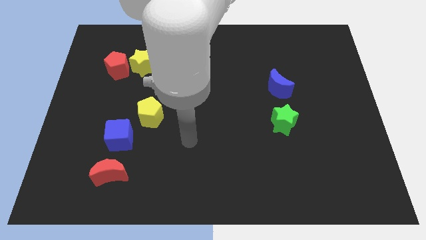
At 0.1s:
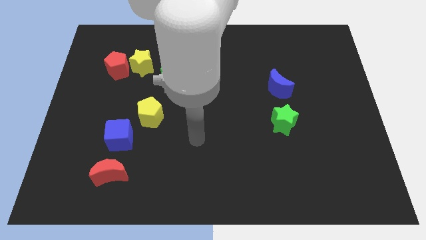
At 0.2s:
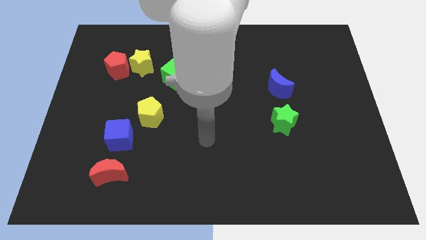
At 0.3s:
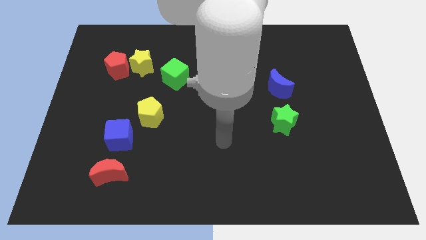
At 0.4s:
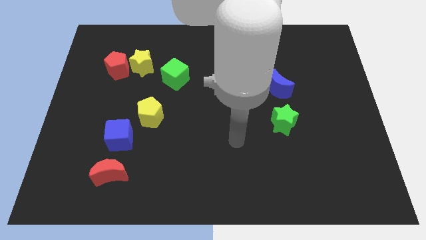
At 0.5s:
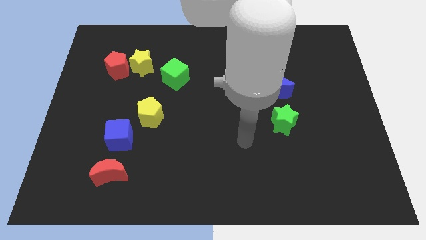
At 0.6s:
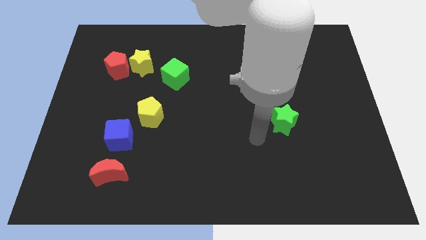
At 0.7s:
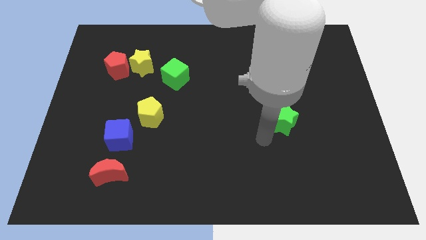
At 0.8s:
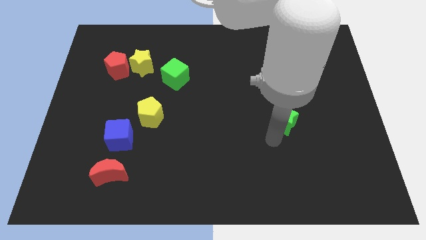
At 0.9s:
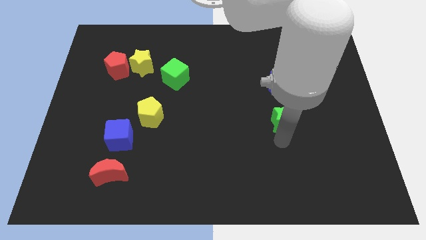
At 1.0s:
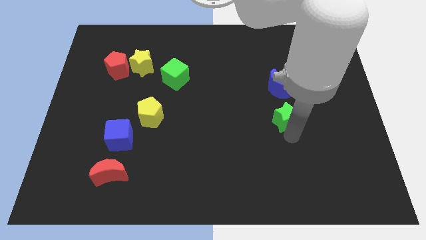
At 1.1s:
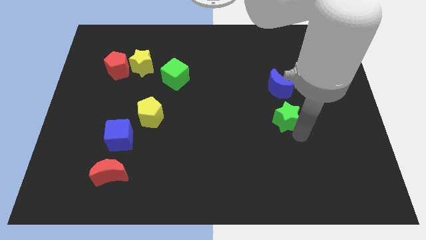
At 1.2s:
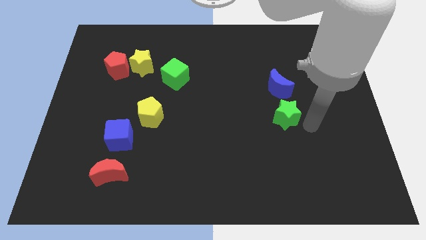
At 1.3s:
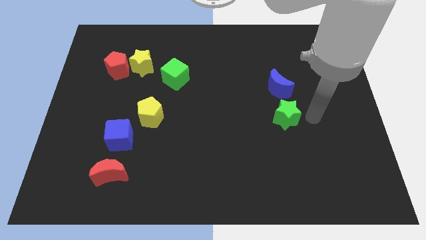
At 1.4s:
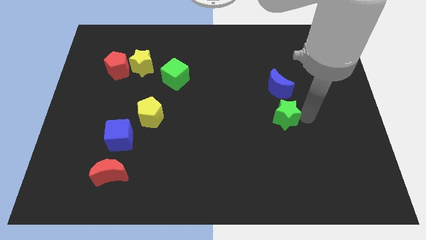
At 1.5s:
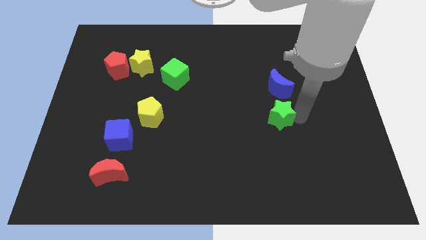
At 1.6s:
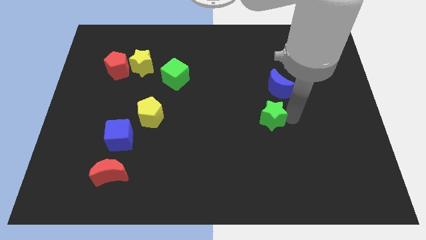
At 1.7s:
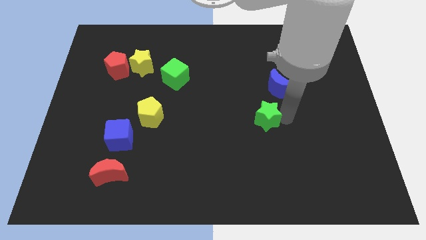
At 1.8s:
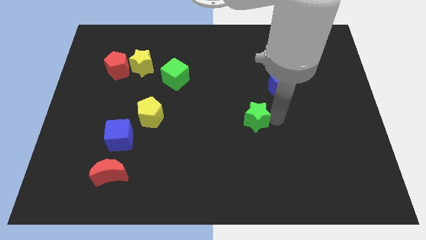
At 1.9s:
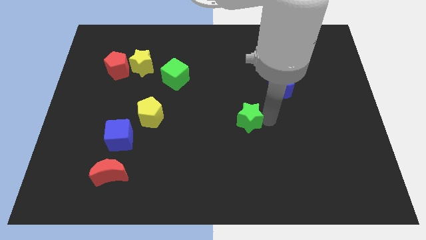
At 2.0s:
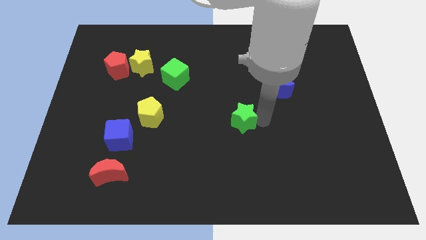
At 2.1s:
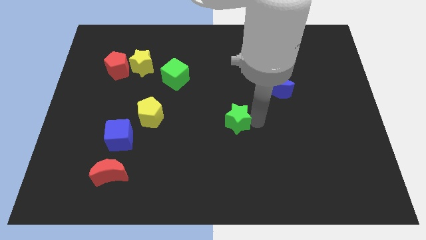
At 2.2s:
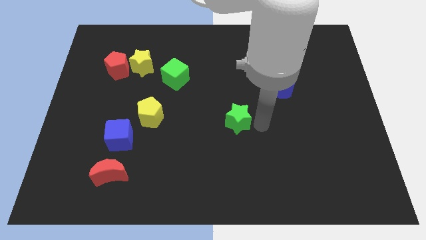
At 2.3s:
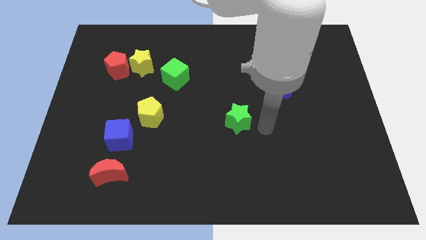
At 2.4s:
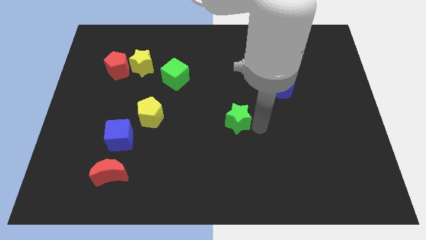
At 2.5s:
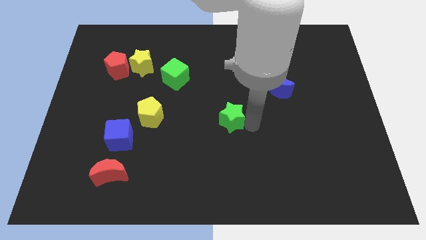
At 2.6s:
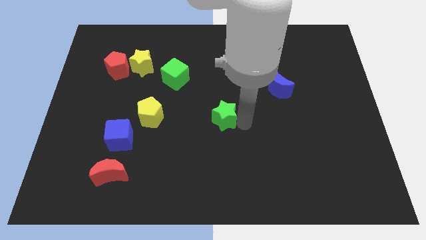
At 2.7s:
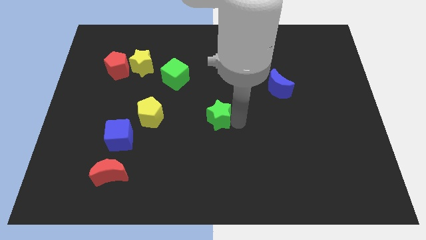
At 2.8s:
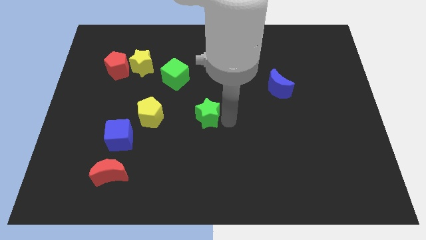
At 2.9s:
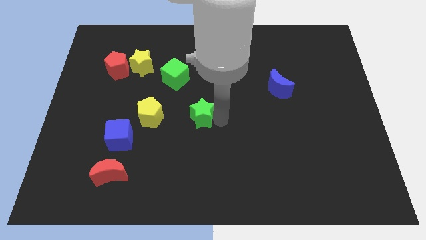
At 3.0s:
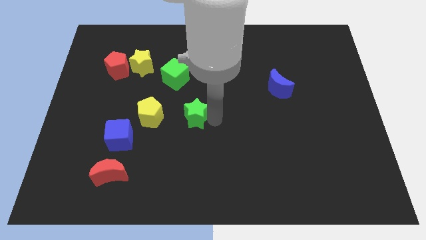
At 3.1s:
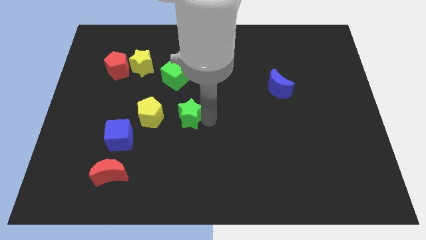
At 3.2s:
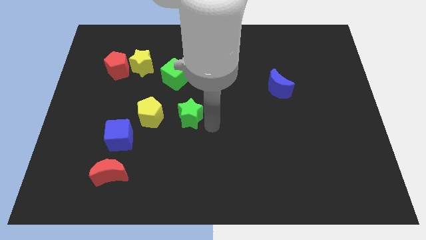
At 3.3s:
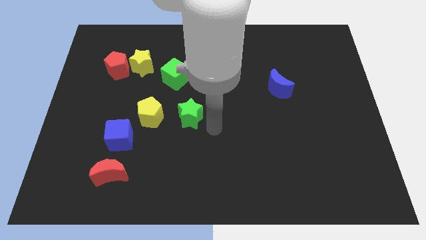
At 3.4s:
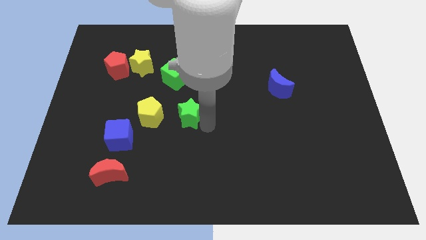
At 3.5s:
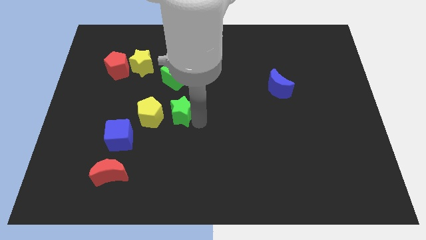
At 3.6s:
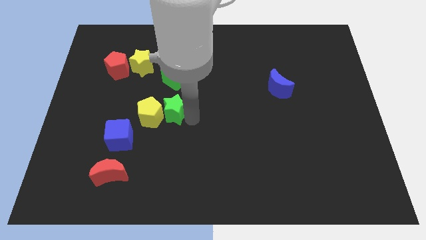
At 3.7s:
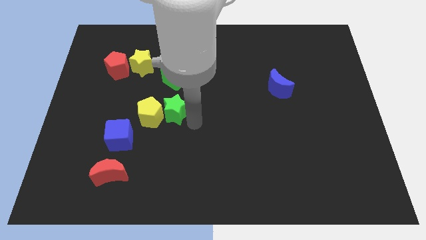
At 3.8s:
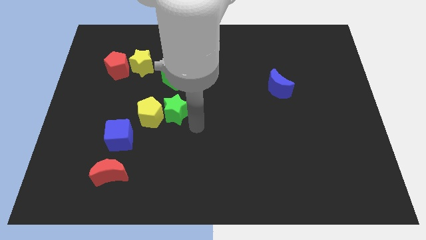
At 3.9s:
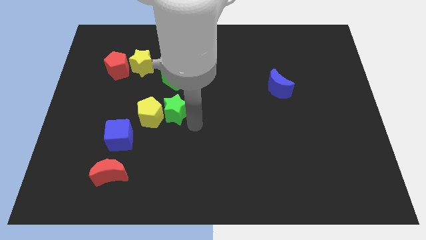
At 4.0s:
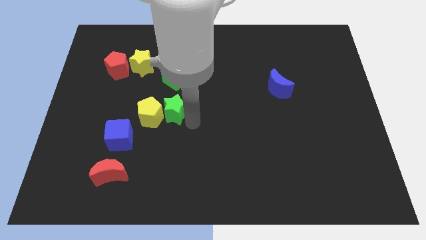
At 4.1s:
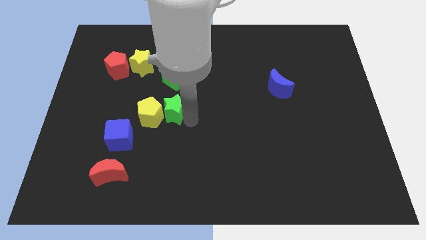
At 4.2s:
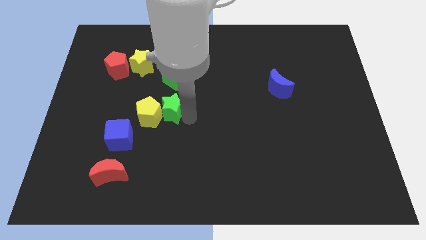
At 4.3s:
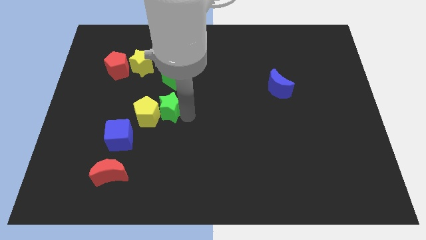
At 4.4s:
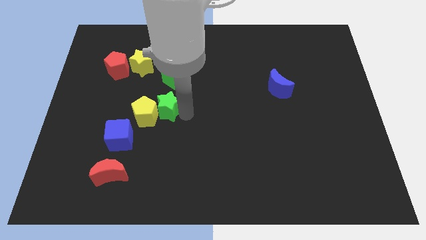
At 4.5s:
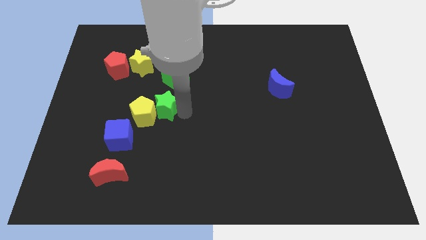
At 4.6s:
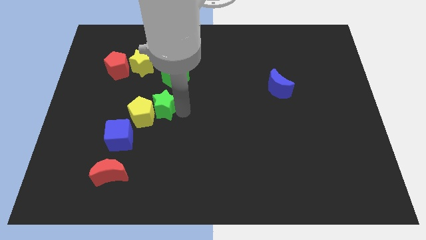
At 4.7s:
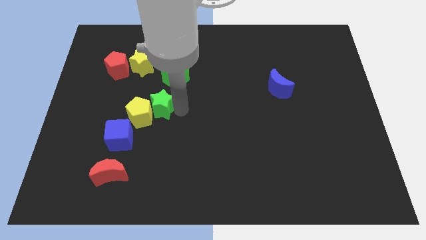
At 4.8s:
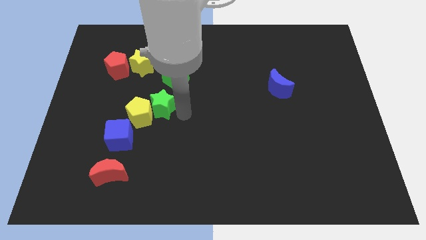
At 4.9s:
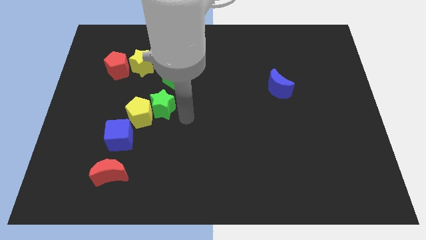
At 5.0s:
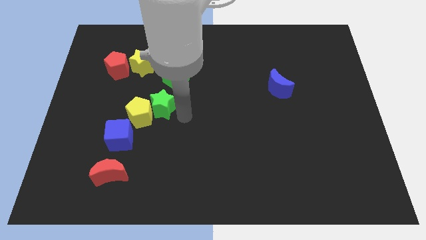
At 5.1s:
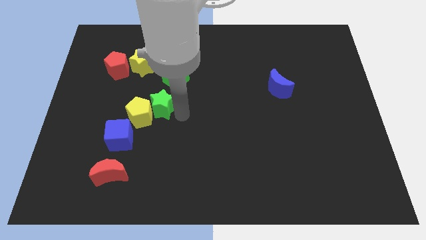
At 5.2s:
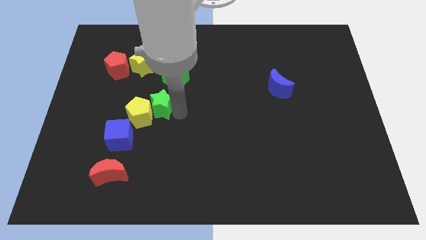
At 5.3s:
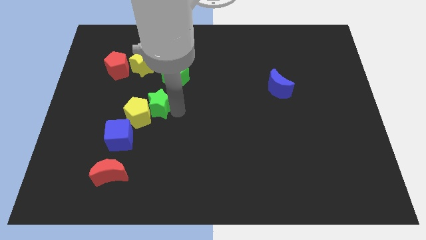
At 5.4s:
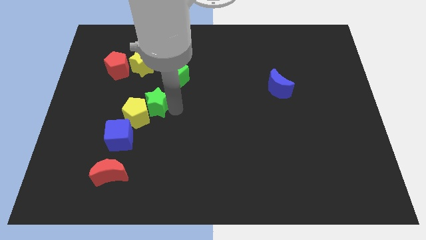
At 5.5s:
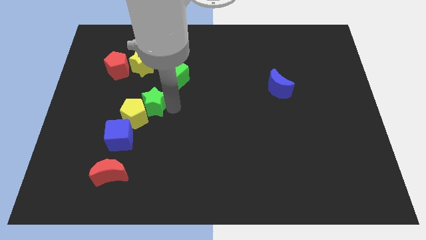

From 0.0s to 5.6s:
slide the green star to the bottom of the yellow star
